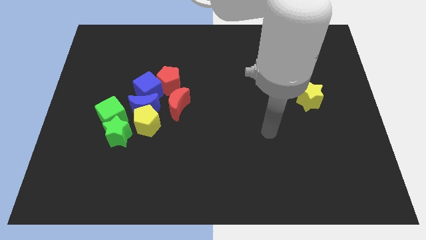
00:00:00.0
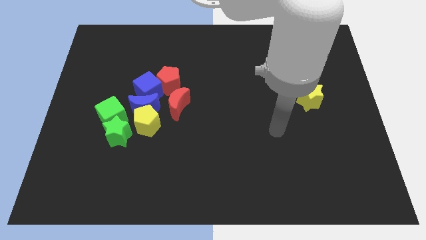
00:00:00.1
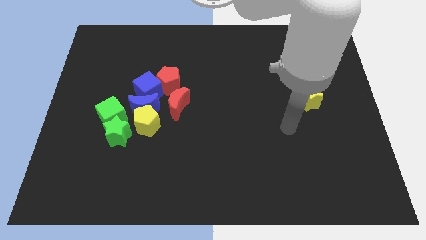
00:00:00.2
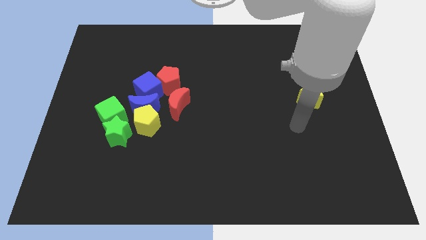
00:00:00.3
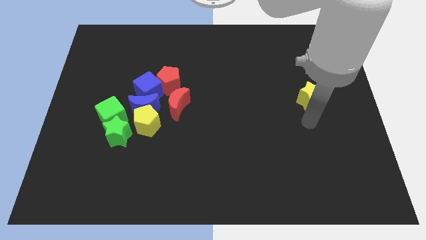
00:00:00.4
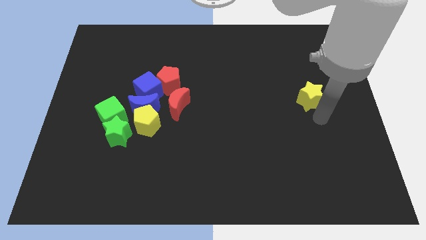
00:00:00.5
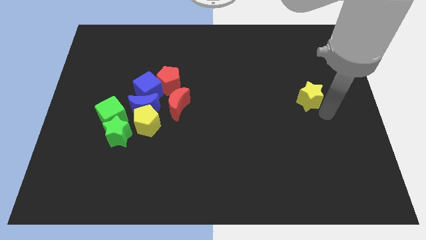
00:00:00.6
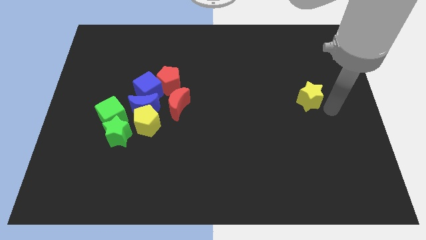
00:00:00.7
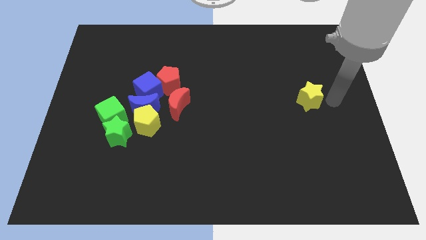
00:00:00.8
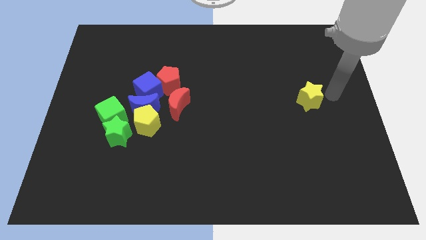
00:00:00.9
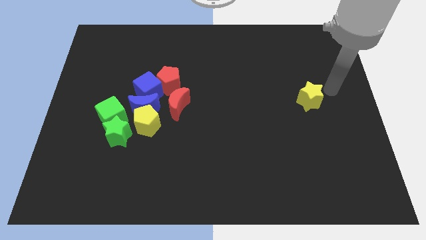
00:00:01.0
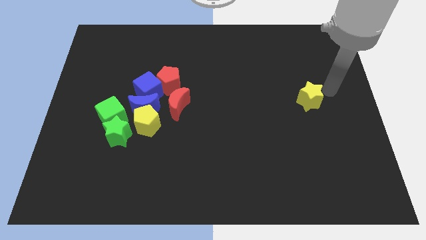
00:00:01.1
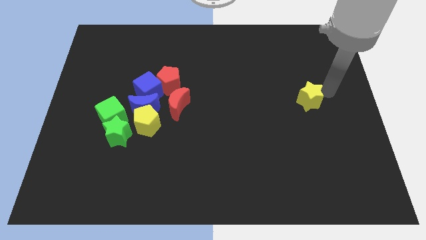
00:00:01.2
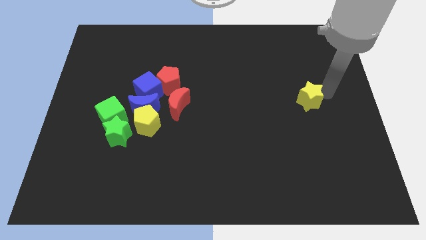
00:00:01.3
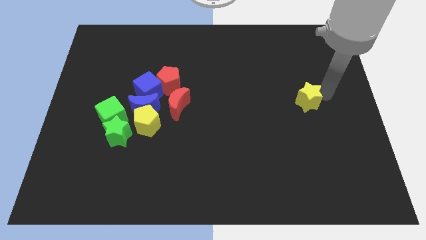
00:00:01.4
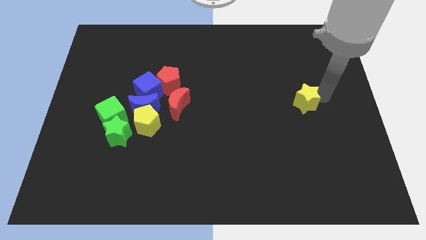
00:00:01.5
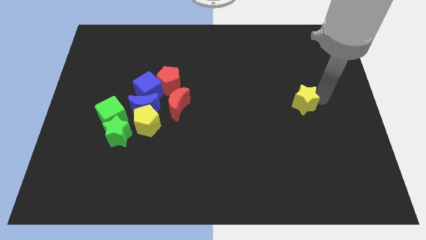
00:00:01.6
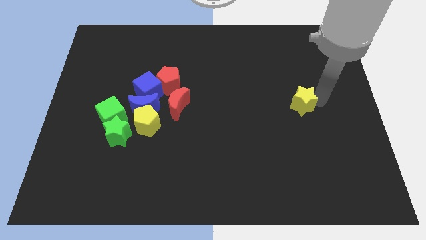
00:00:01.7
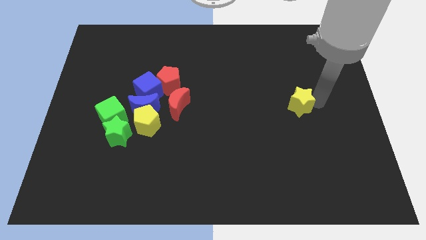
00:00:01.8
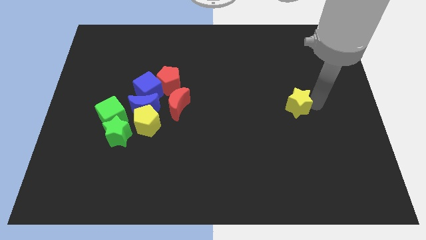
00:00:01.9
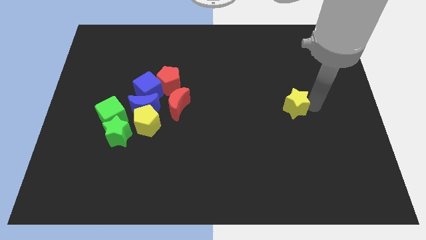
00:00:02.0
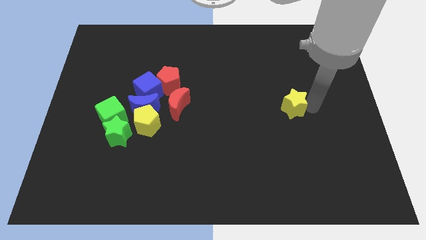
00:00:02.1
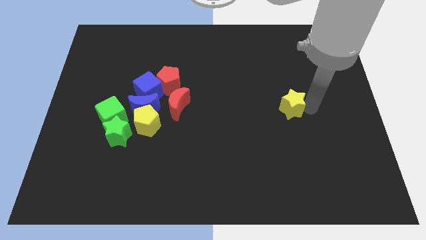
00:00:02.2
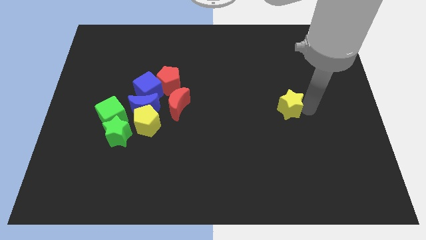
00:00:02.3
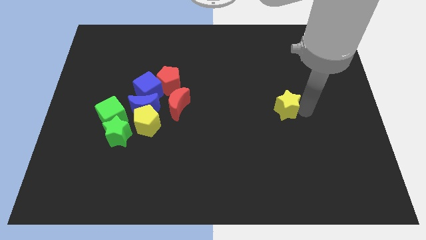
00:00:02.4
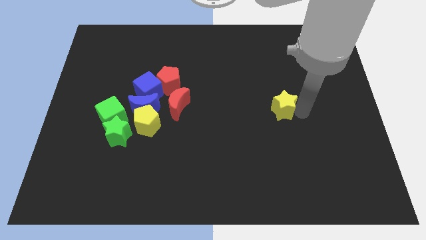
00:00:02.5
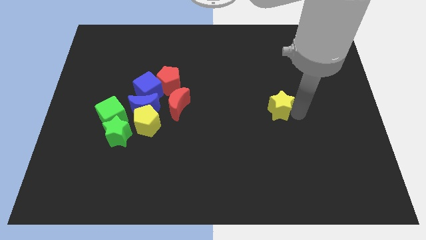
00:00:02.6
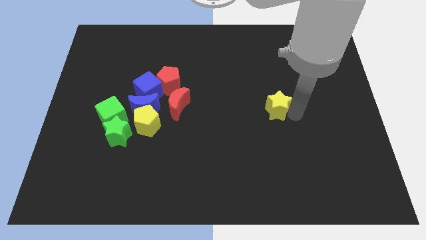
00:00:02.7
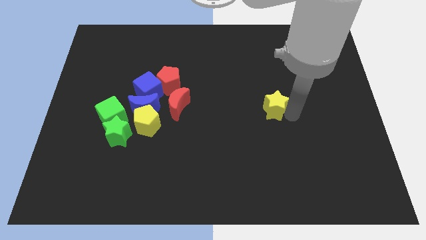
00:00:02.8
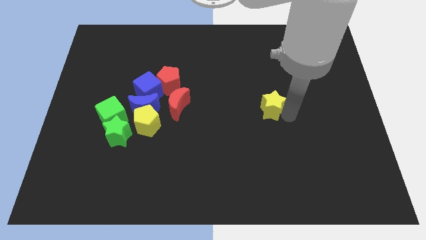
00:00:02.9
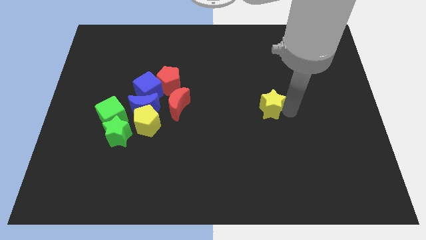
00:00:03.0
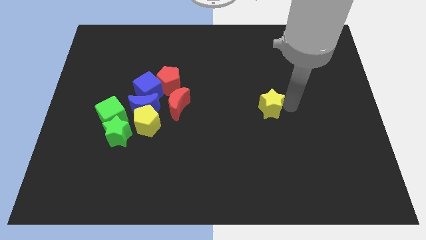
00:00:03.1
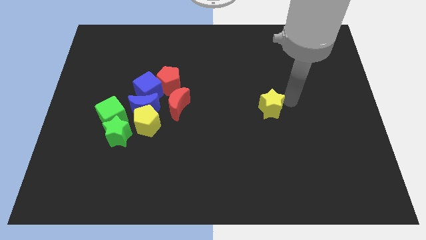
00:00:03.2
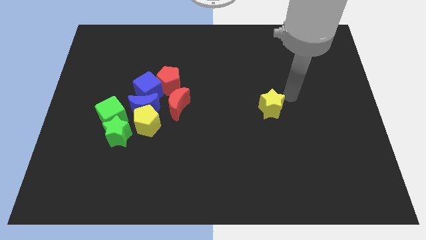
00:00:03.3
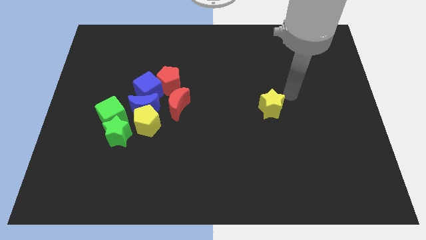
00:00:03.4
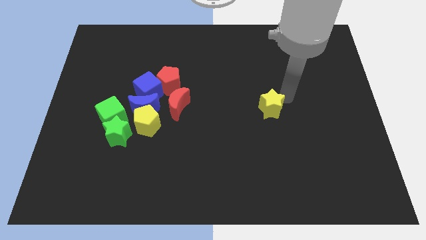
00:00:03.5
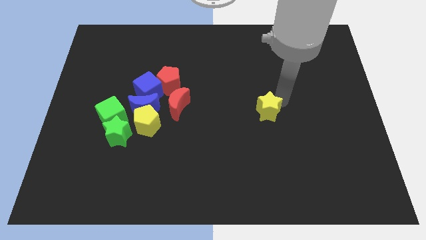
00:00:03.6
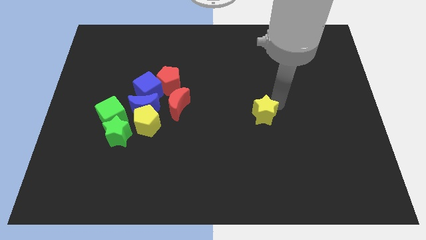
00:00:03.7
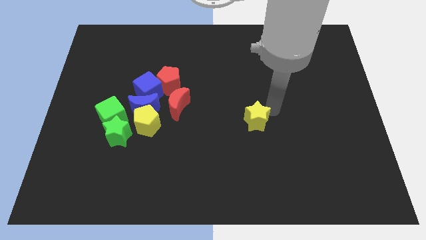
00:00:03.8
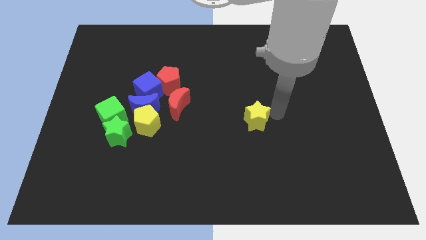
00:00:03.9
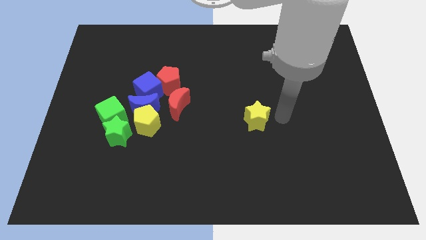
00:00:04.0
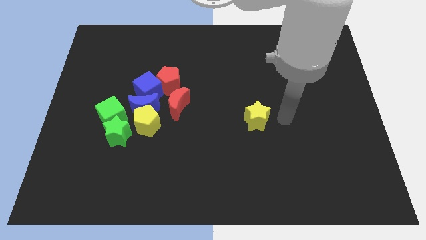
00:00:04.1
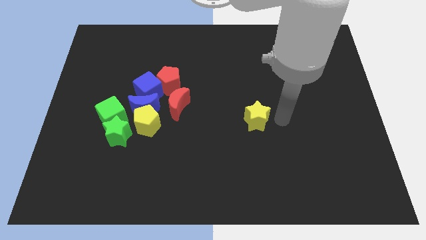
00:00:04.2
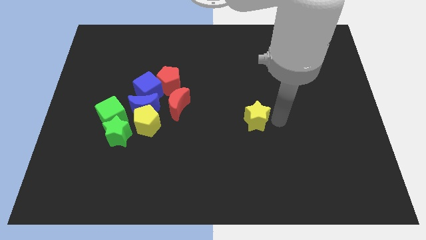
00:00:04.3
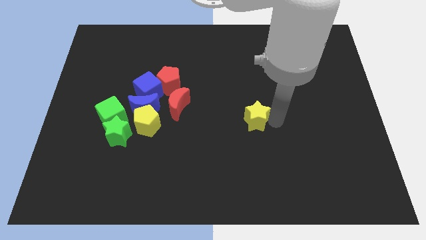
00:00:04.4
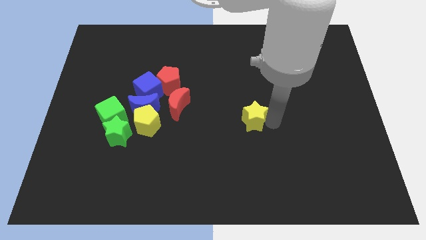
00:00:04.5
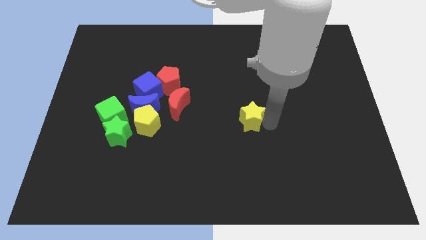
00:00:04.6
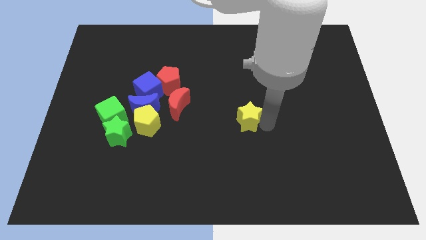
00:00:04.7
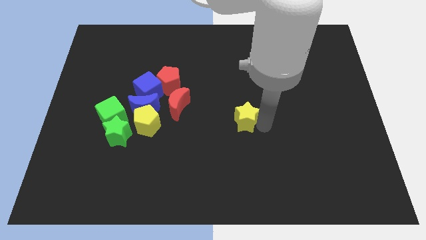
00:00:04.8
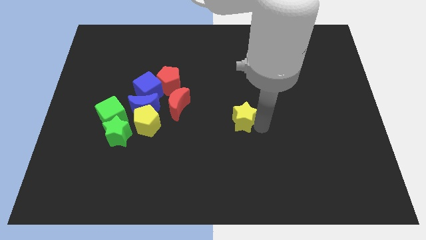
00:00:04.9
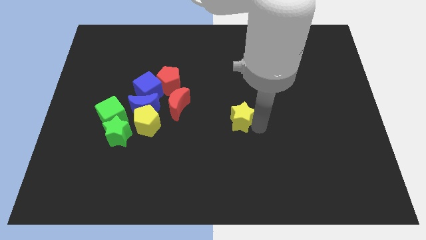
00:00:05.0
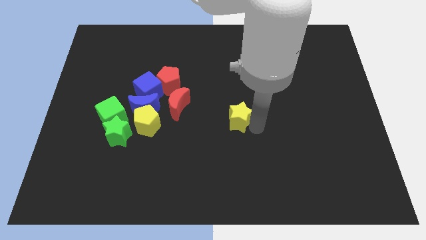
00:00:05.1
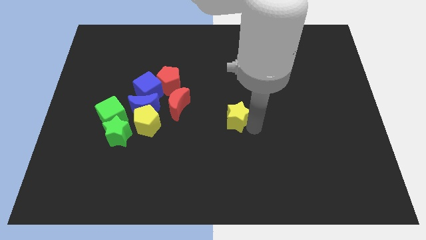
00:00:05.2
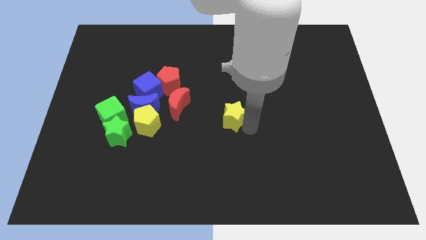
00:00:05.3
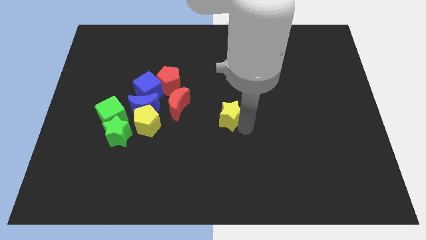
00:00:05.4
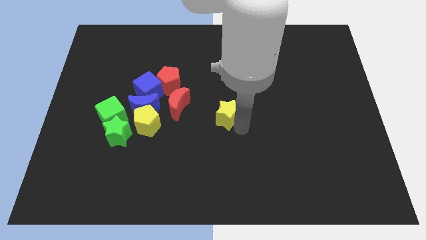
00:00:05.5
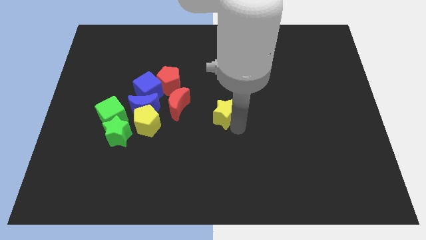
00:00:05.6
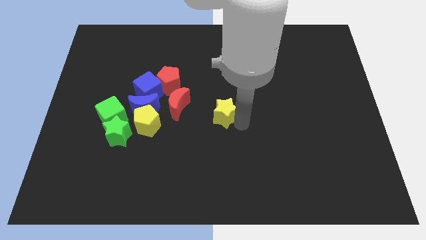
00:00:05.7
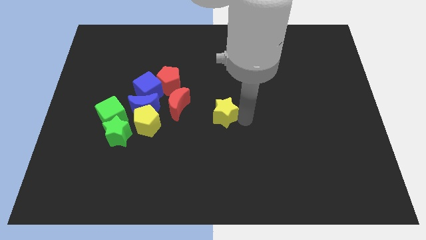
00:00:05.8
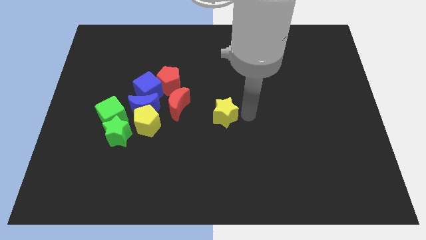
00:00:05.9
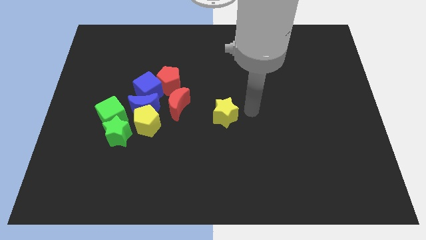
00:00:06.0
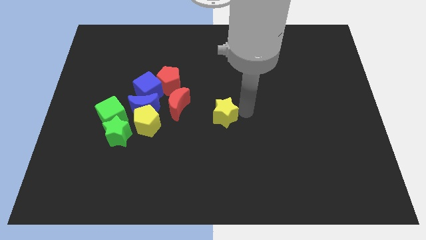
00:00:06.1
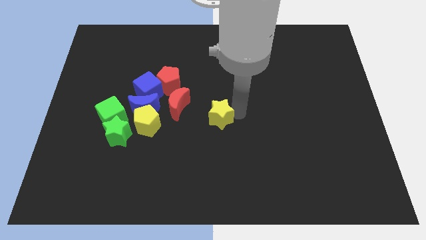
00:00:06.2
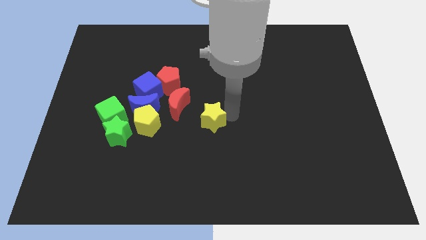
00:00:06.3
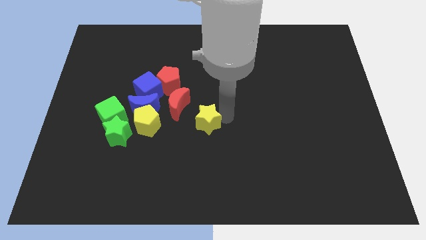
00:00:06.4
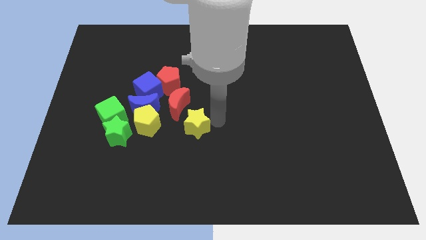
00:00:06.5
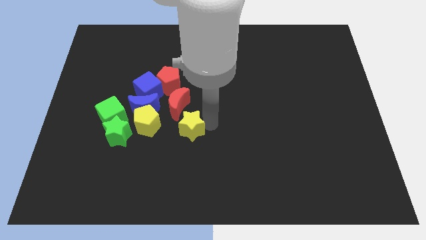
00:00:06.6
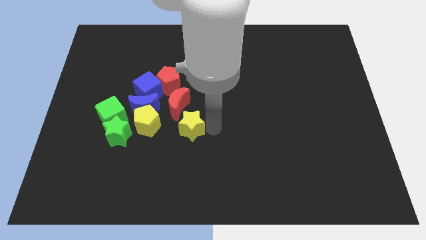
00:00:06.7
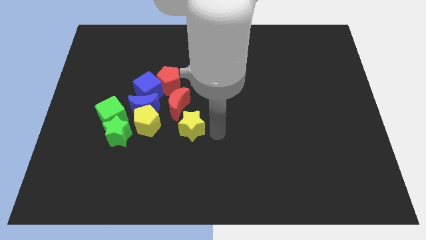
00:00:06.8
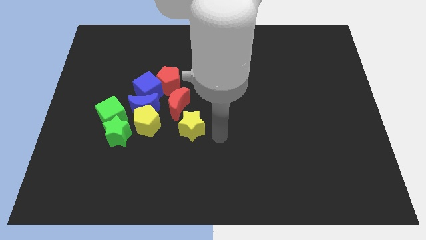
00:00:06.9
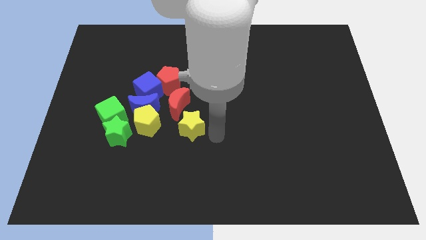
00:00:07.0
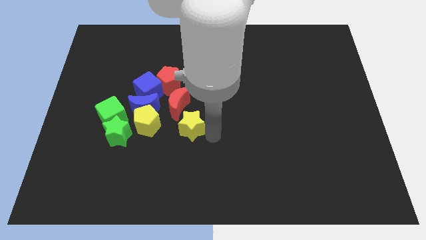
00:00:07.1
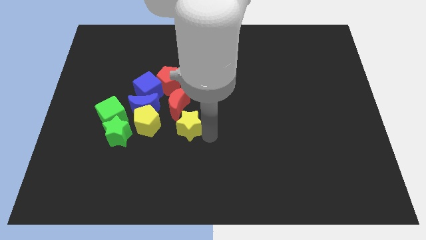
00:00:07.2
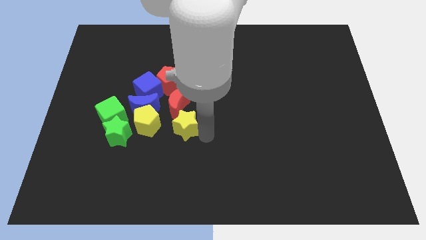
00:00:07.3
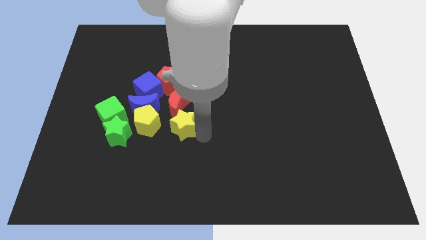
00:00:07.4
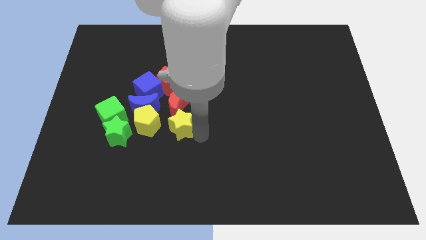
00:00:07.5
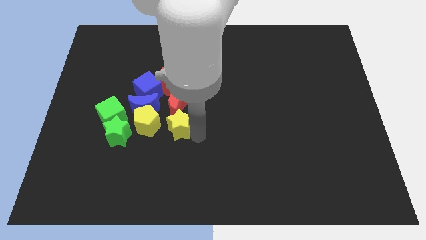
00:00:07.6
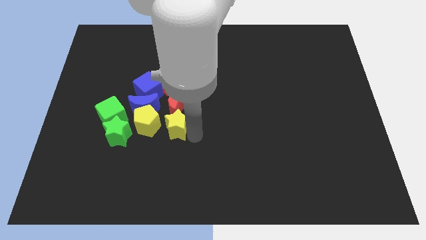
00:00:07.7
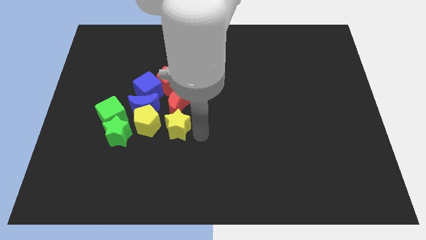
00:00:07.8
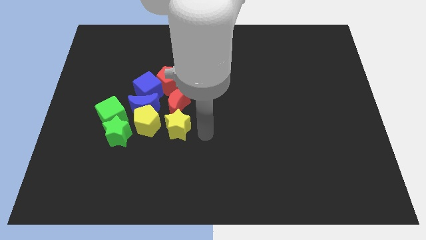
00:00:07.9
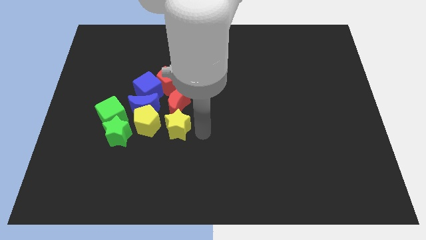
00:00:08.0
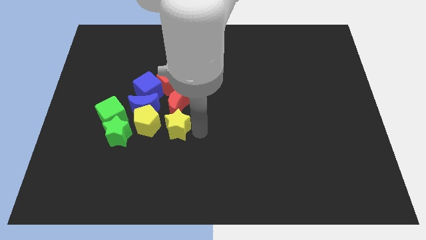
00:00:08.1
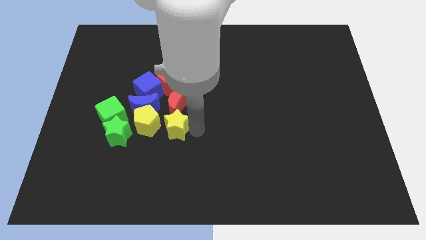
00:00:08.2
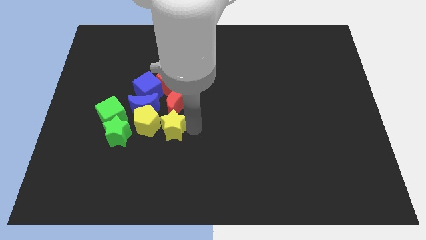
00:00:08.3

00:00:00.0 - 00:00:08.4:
put the yellow star next to the yellow pentagon
